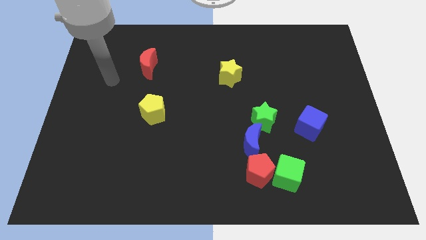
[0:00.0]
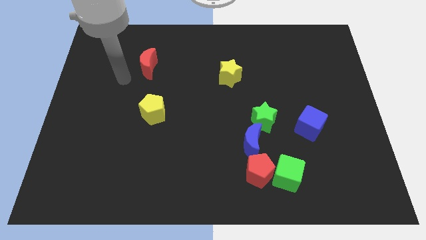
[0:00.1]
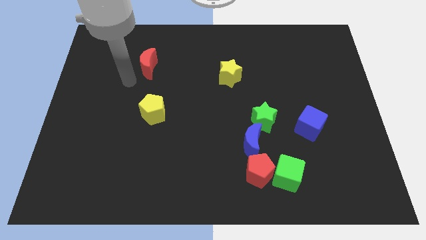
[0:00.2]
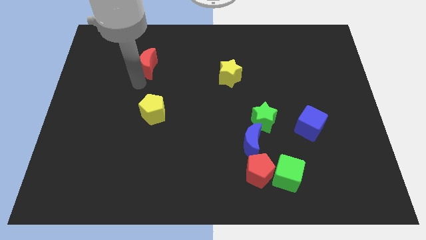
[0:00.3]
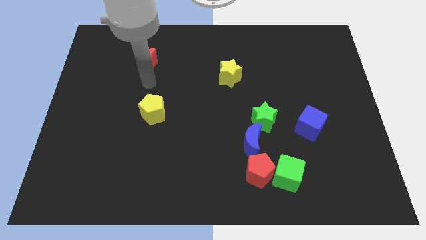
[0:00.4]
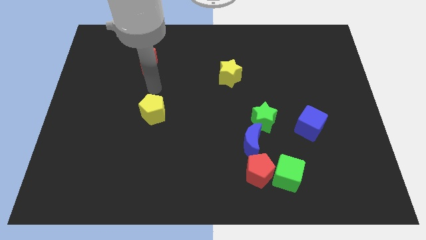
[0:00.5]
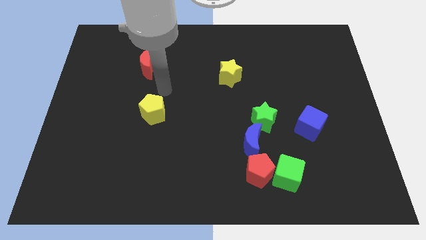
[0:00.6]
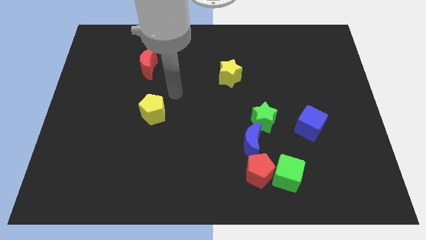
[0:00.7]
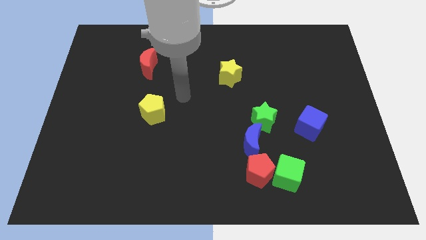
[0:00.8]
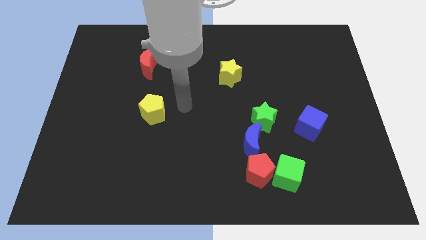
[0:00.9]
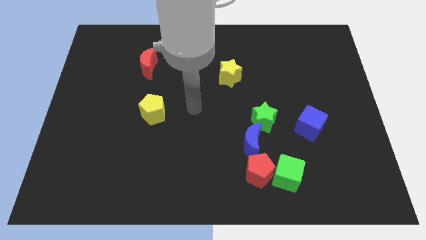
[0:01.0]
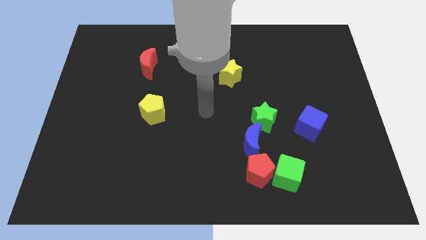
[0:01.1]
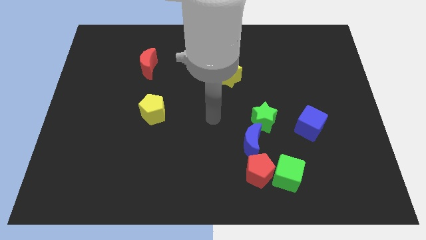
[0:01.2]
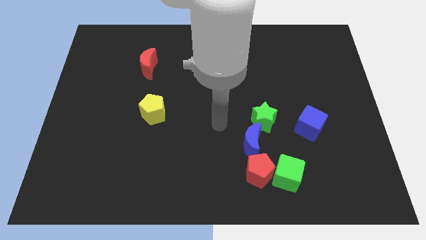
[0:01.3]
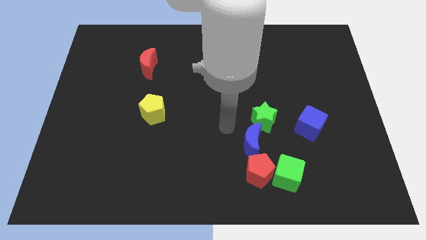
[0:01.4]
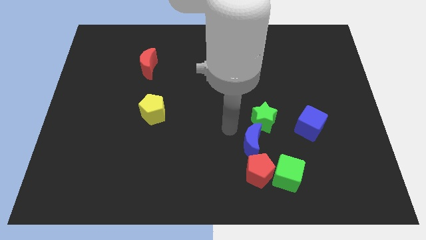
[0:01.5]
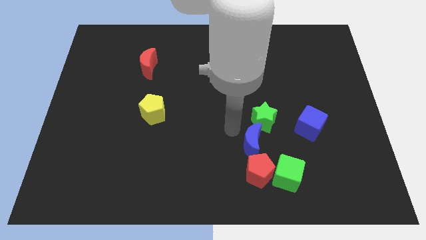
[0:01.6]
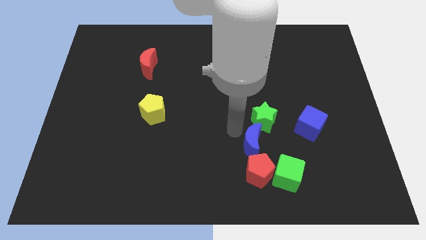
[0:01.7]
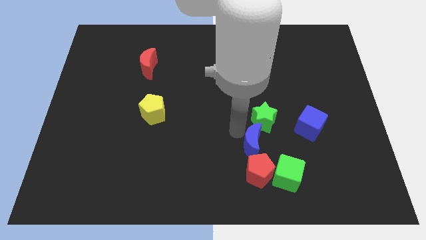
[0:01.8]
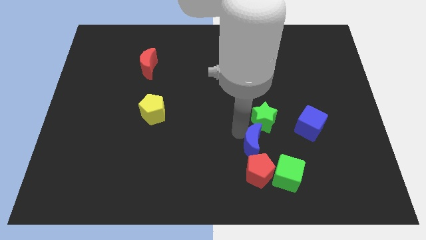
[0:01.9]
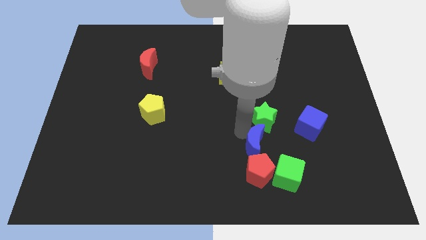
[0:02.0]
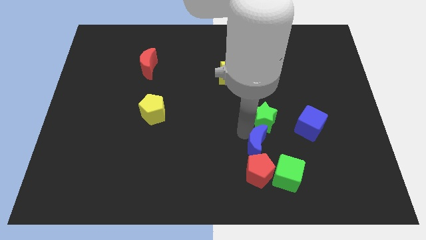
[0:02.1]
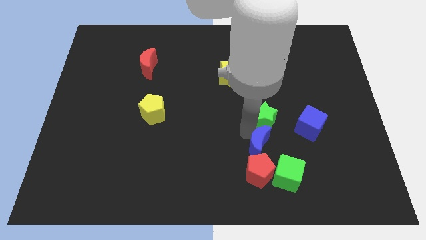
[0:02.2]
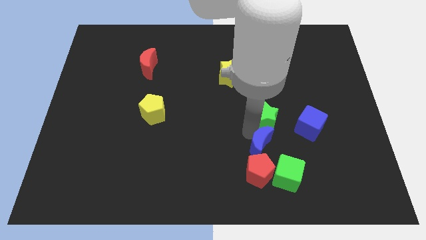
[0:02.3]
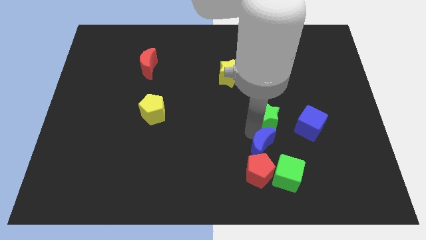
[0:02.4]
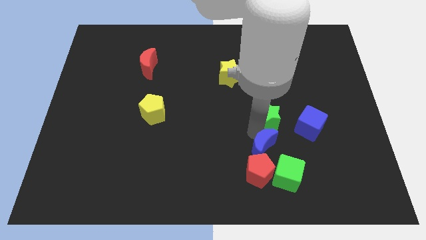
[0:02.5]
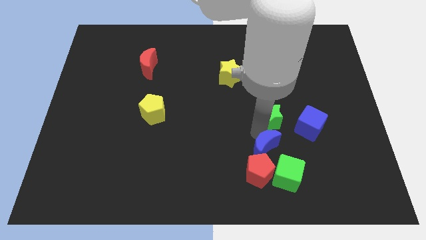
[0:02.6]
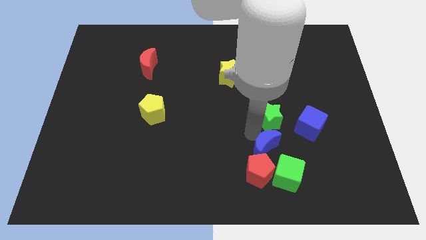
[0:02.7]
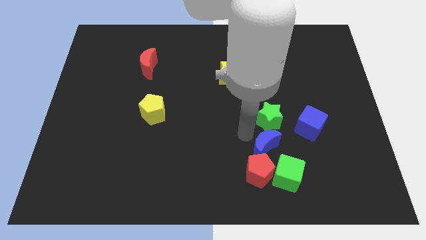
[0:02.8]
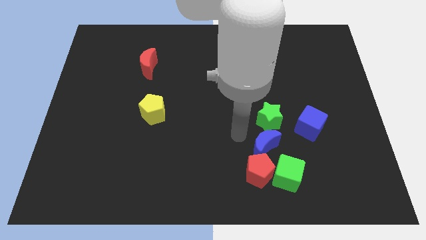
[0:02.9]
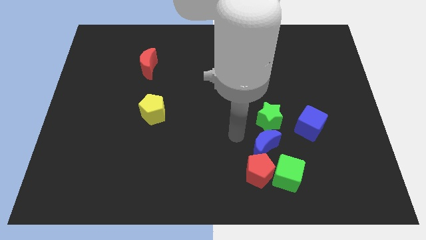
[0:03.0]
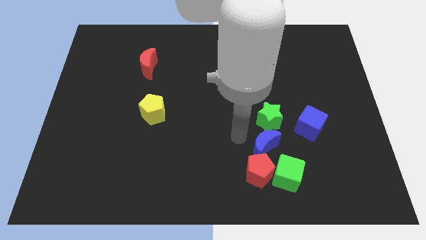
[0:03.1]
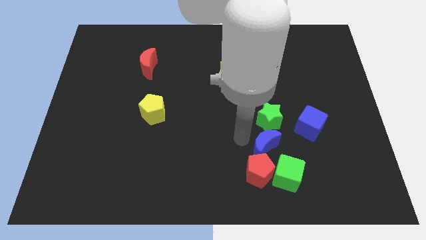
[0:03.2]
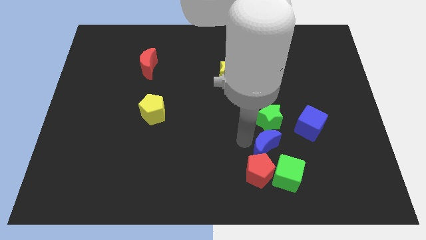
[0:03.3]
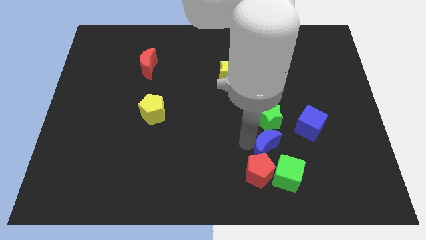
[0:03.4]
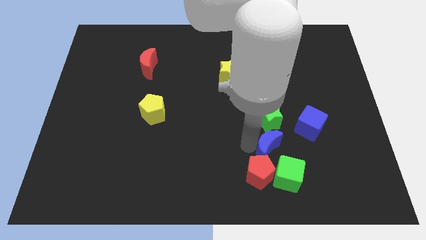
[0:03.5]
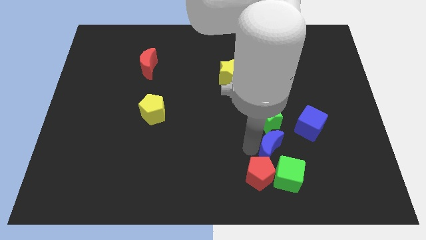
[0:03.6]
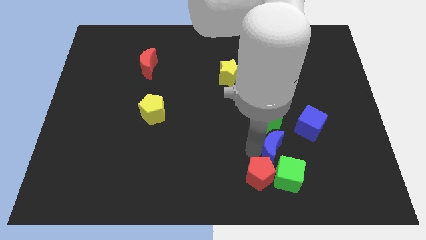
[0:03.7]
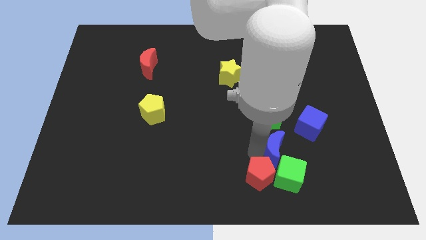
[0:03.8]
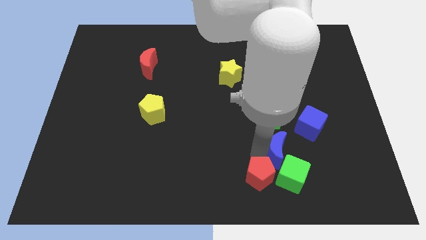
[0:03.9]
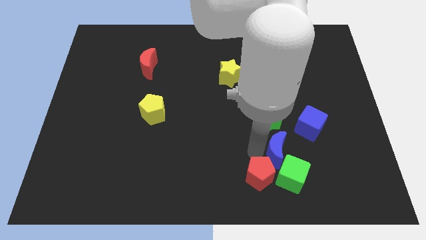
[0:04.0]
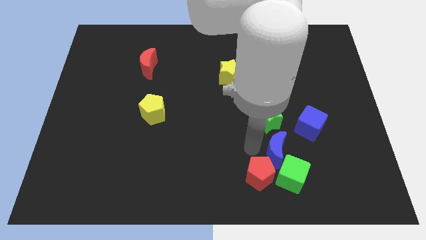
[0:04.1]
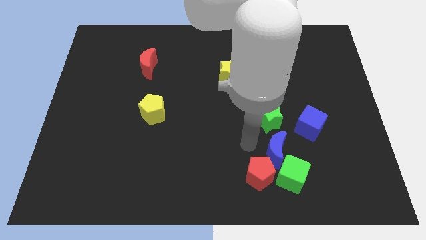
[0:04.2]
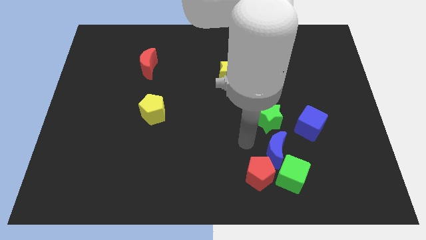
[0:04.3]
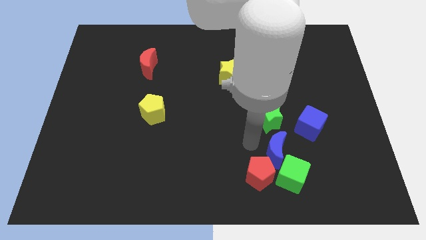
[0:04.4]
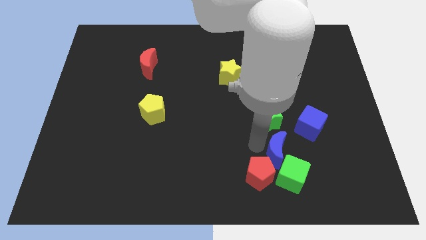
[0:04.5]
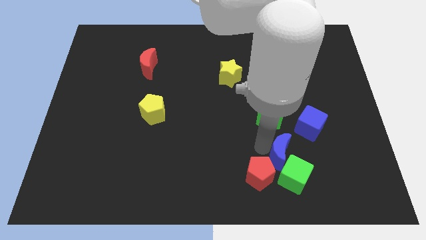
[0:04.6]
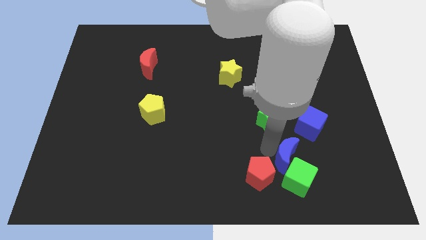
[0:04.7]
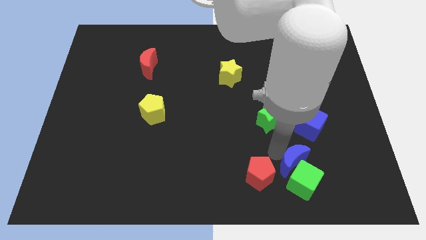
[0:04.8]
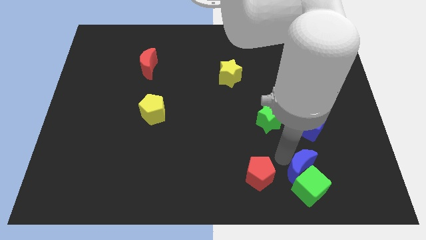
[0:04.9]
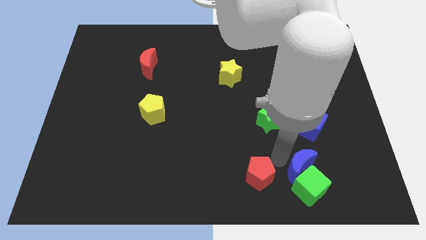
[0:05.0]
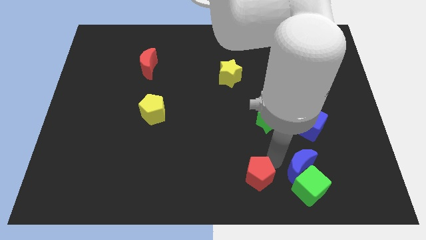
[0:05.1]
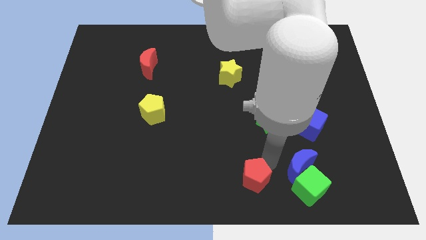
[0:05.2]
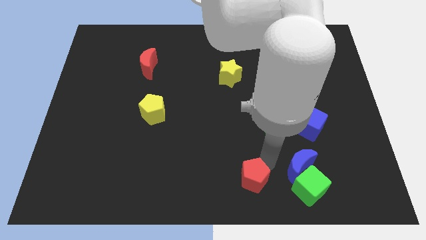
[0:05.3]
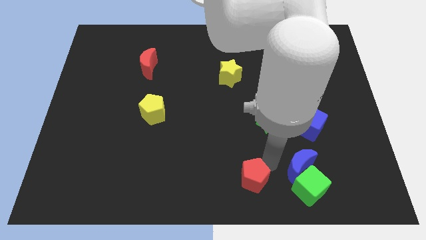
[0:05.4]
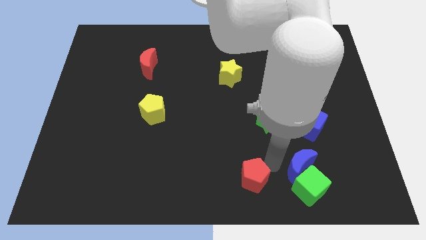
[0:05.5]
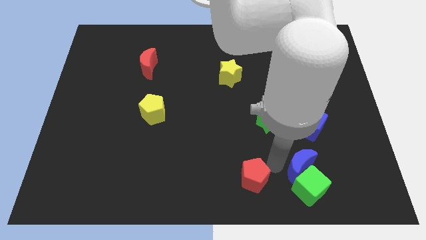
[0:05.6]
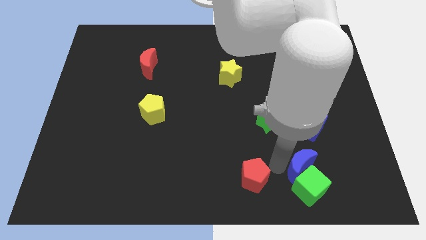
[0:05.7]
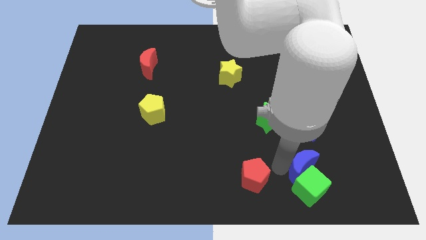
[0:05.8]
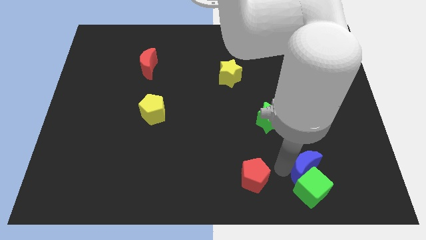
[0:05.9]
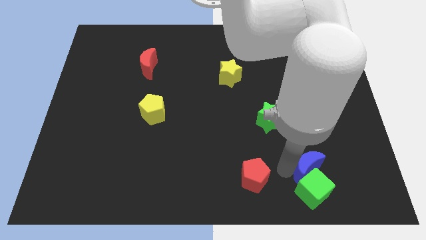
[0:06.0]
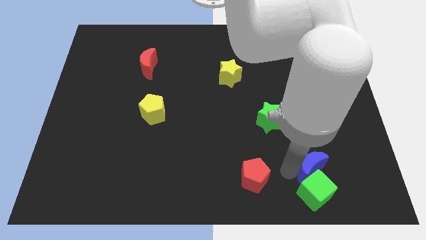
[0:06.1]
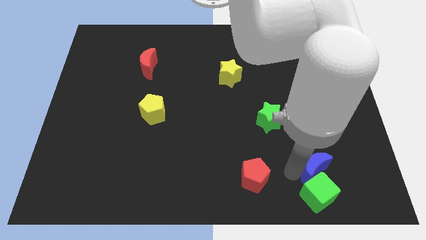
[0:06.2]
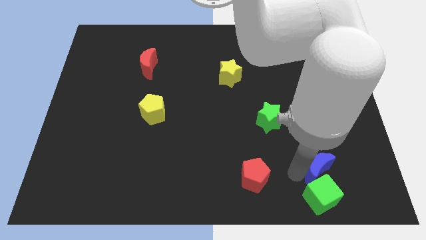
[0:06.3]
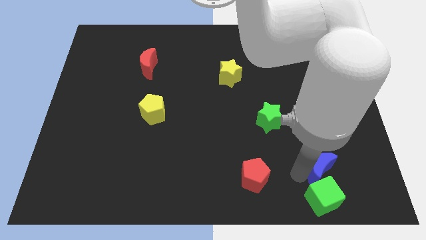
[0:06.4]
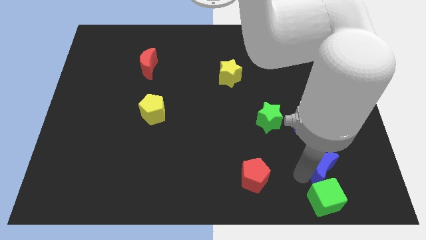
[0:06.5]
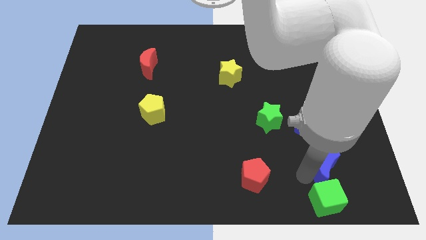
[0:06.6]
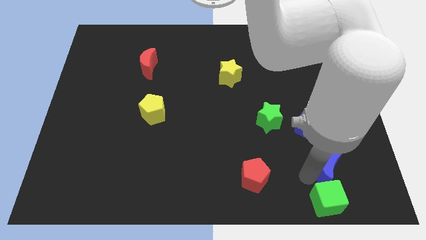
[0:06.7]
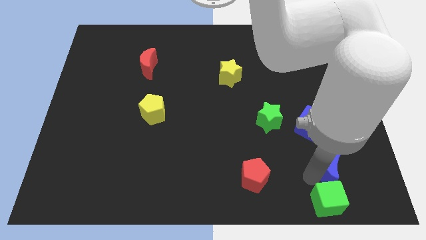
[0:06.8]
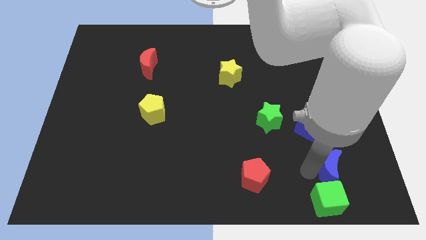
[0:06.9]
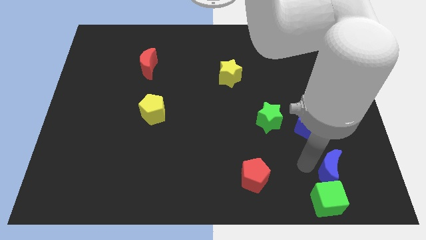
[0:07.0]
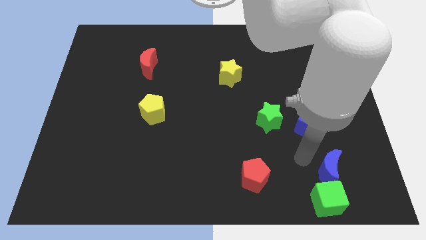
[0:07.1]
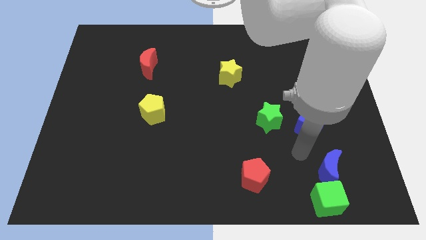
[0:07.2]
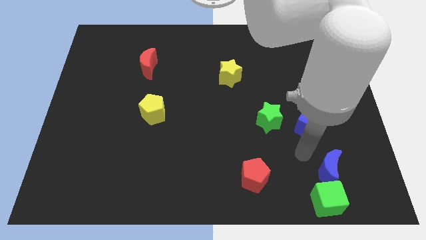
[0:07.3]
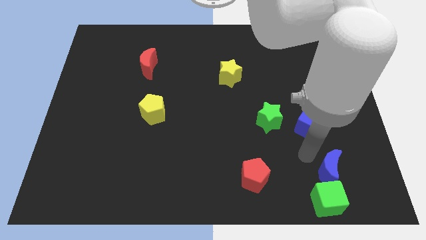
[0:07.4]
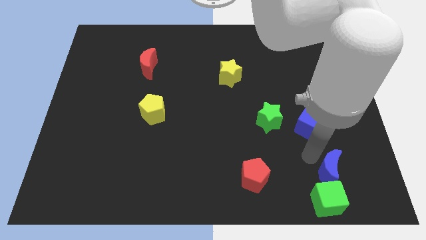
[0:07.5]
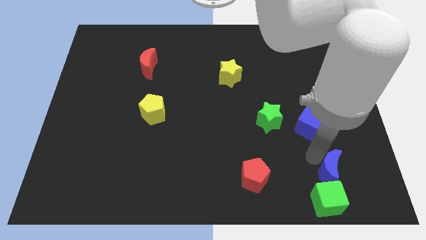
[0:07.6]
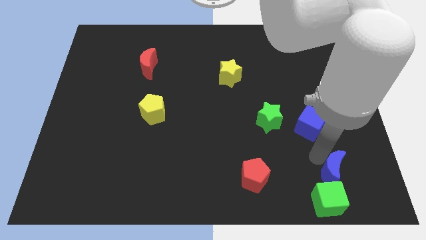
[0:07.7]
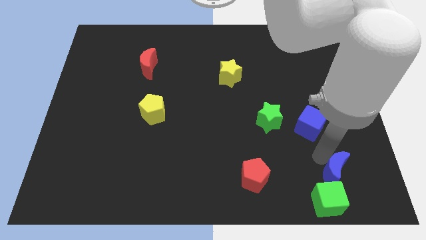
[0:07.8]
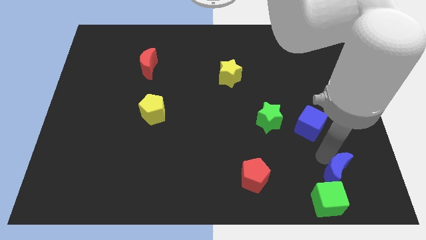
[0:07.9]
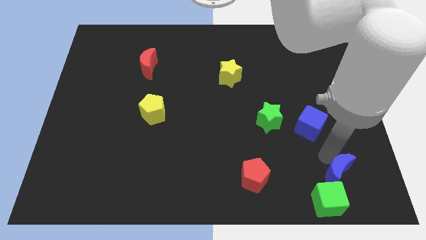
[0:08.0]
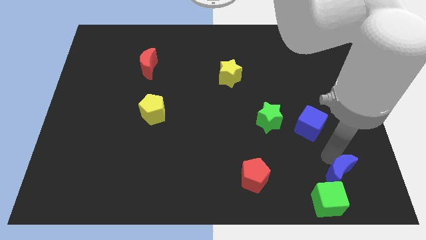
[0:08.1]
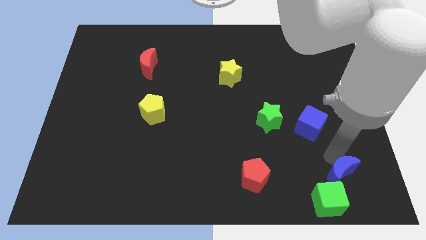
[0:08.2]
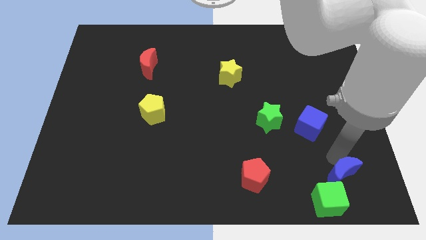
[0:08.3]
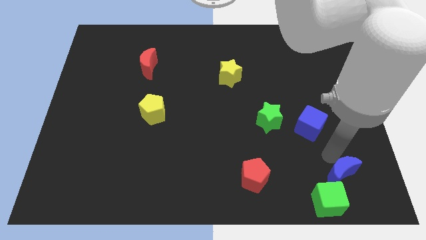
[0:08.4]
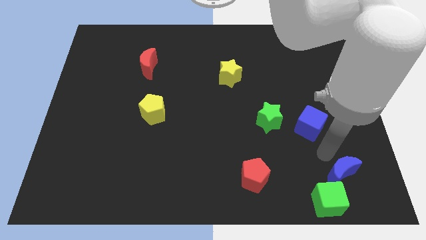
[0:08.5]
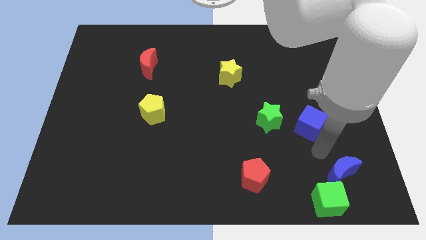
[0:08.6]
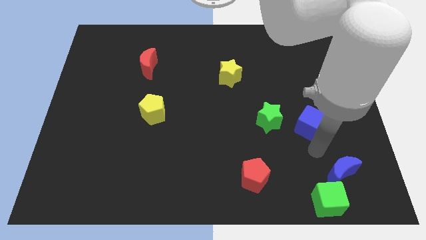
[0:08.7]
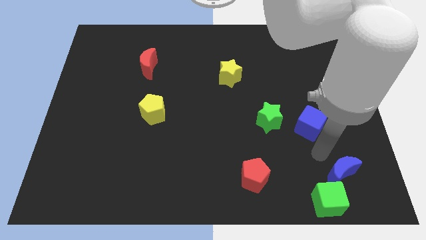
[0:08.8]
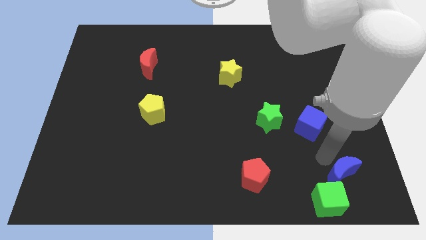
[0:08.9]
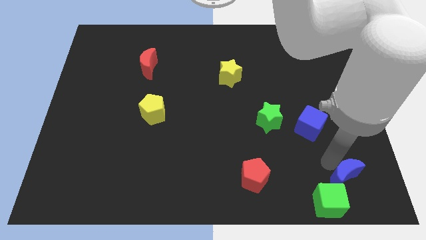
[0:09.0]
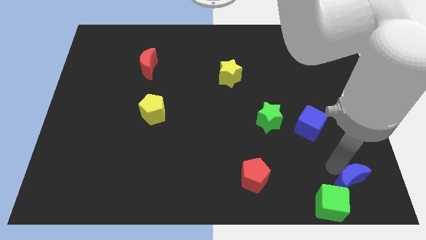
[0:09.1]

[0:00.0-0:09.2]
put the blue moon to the bottom right
